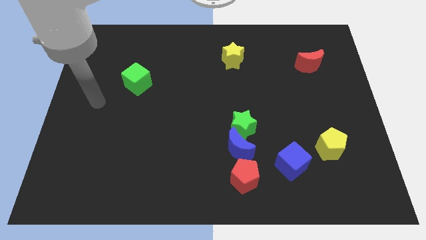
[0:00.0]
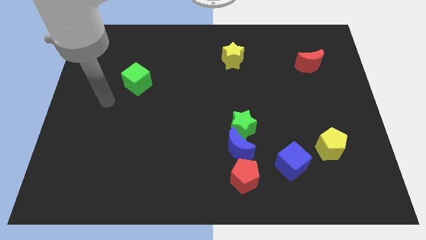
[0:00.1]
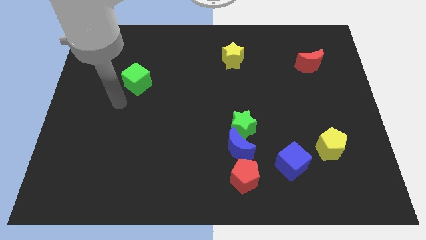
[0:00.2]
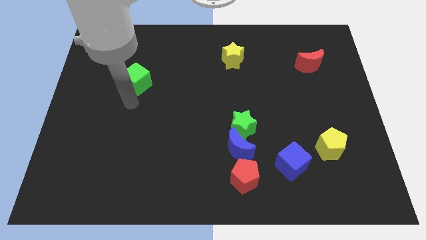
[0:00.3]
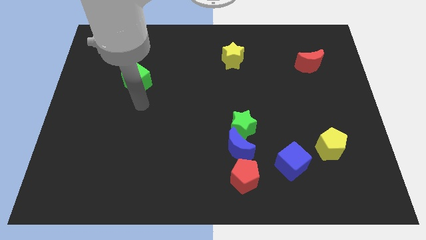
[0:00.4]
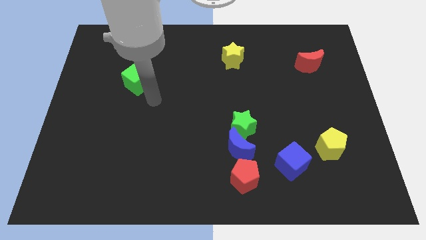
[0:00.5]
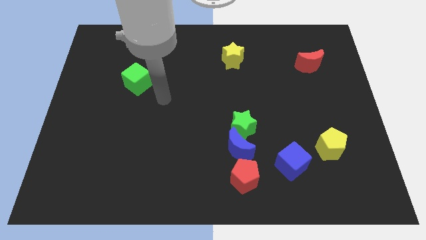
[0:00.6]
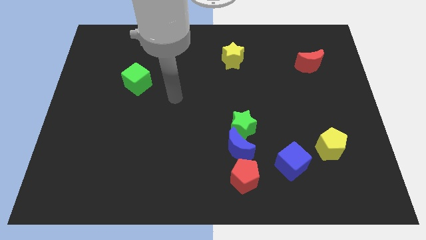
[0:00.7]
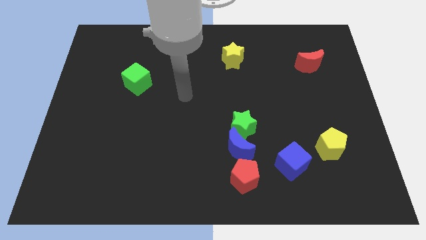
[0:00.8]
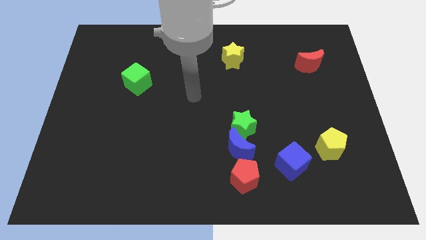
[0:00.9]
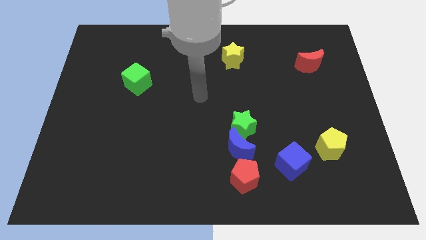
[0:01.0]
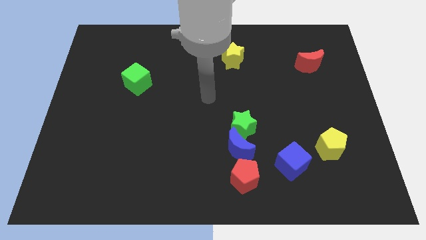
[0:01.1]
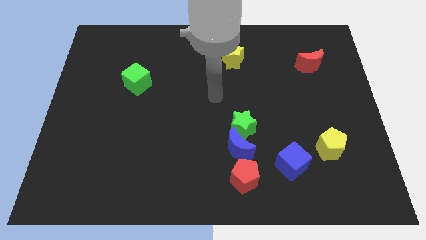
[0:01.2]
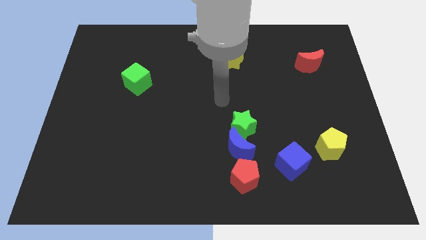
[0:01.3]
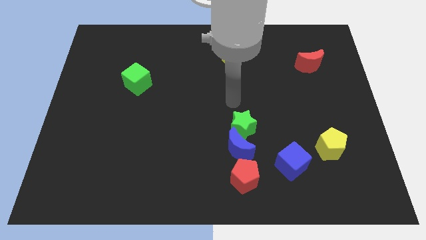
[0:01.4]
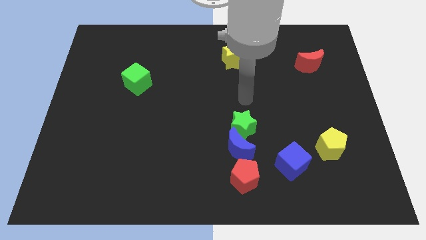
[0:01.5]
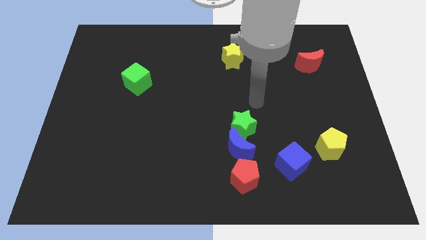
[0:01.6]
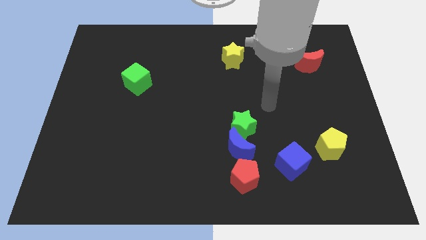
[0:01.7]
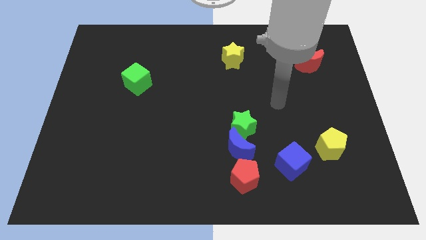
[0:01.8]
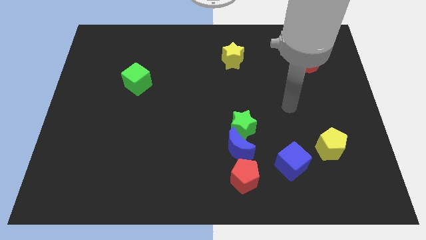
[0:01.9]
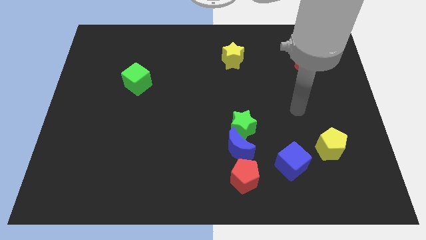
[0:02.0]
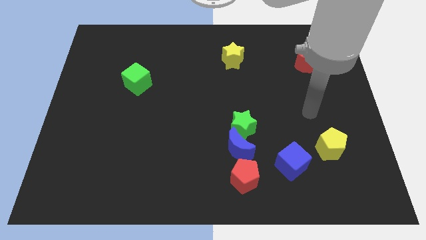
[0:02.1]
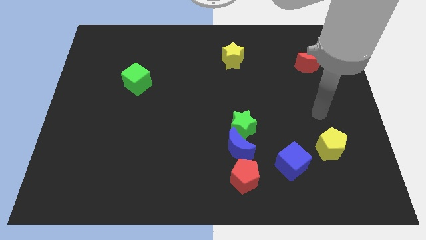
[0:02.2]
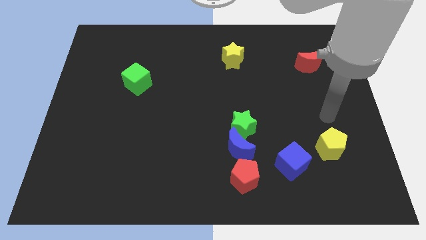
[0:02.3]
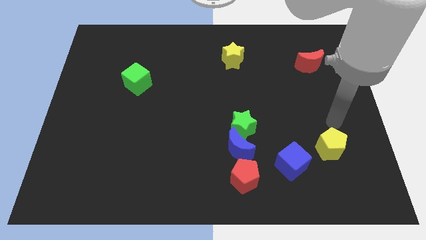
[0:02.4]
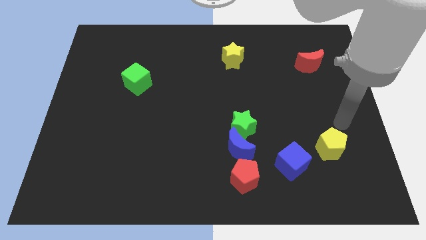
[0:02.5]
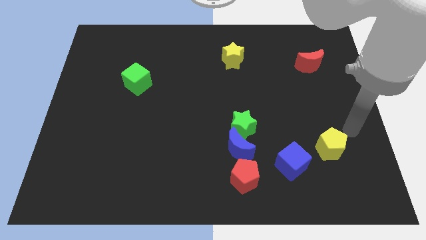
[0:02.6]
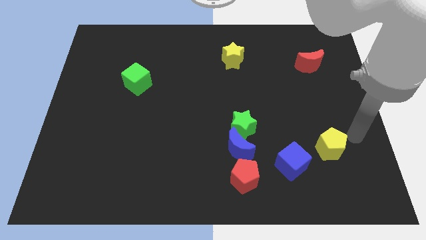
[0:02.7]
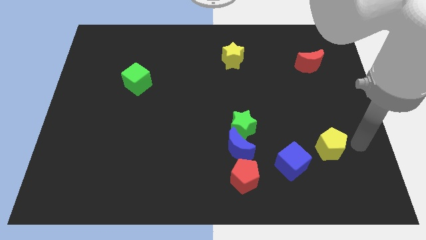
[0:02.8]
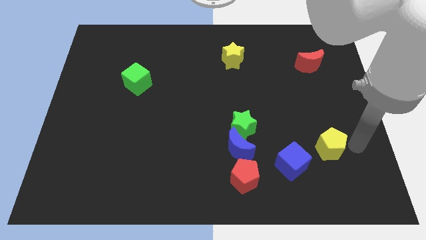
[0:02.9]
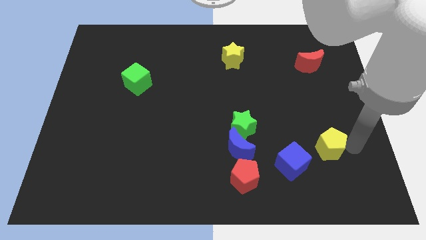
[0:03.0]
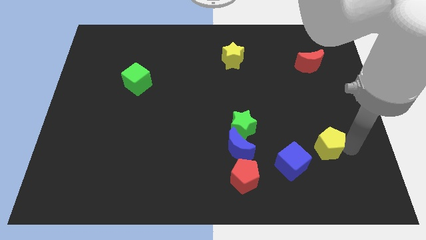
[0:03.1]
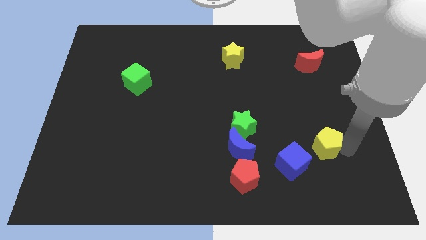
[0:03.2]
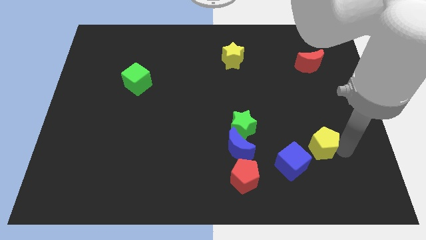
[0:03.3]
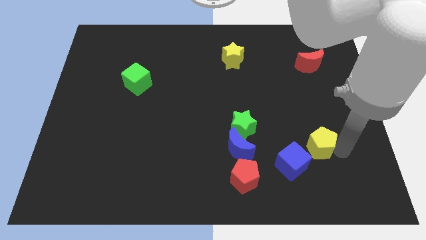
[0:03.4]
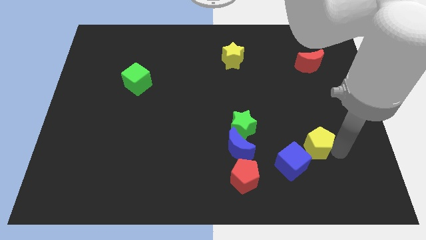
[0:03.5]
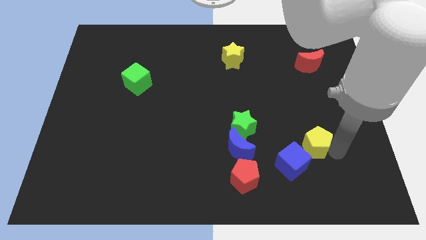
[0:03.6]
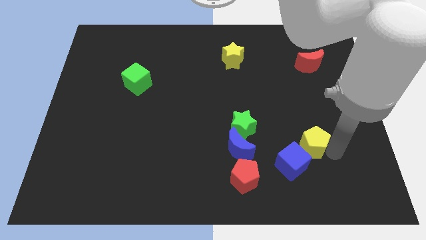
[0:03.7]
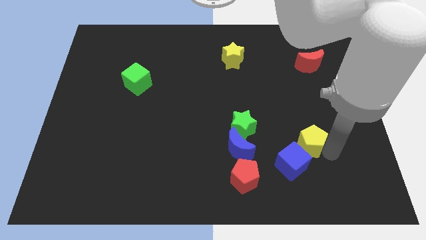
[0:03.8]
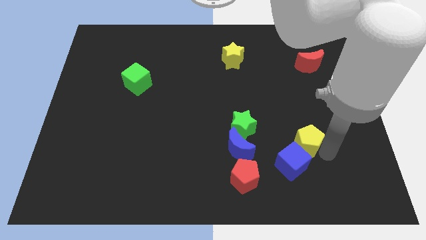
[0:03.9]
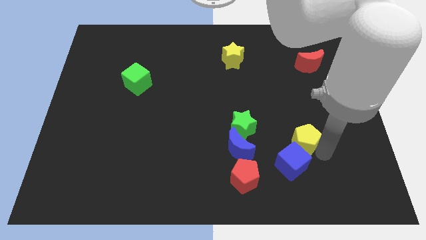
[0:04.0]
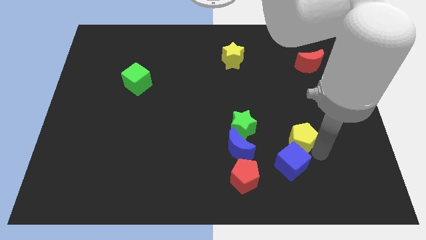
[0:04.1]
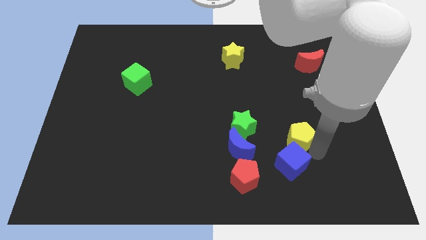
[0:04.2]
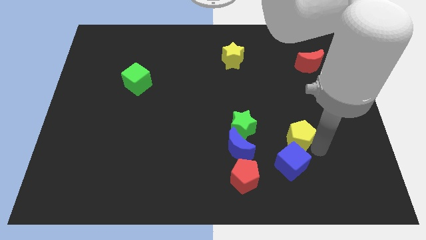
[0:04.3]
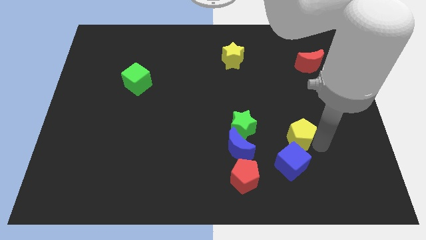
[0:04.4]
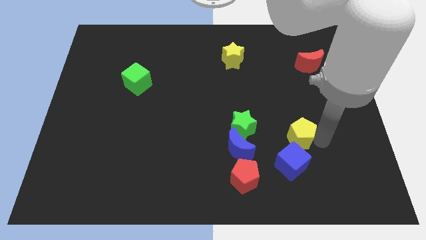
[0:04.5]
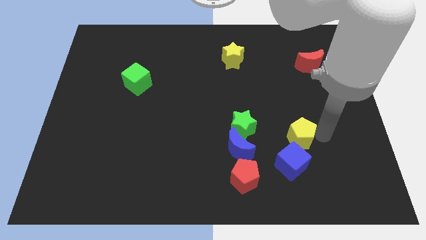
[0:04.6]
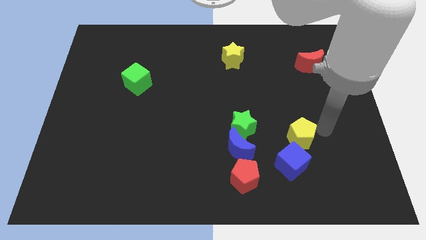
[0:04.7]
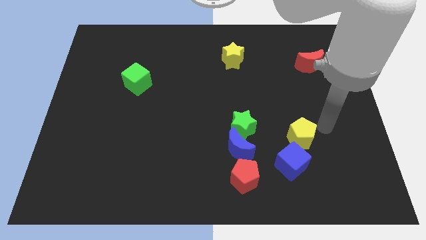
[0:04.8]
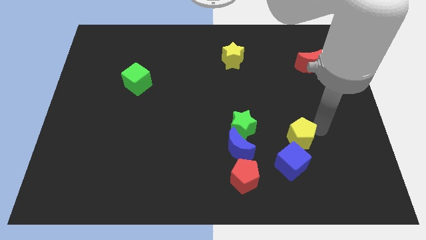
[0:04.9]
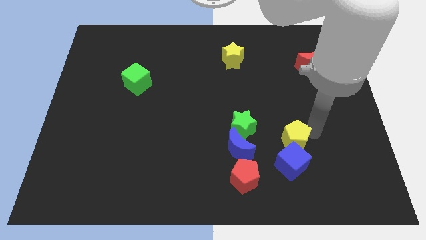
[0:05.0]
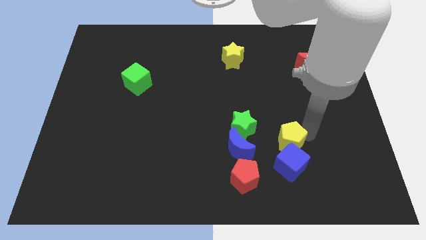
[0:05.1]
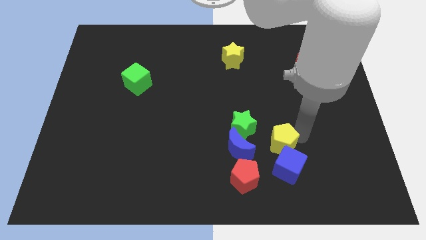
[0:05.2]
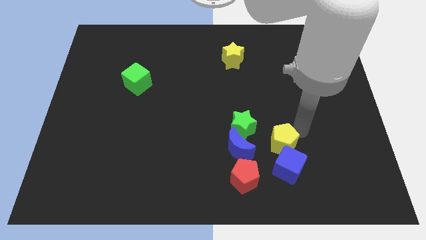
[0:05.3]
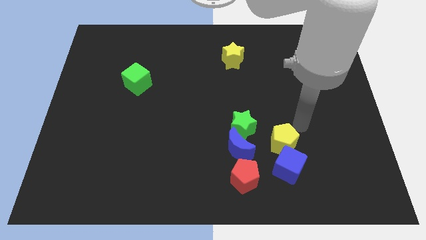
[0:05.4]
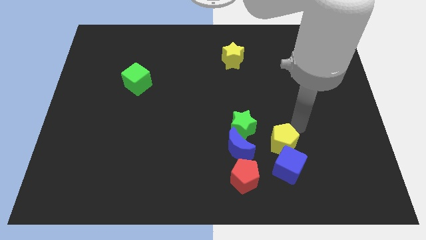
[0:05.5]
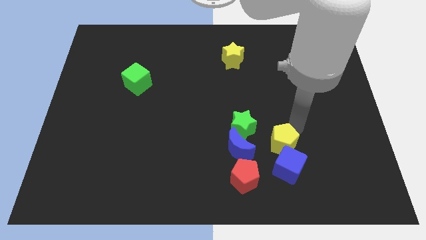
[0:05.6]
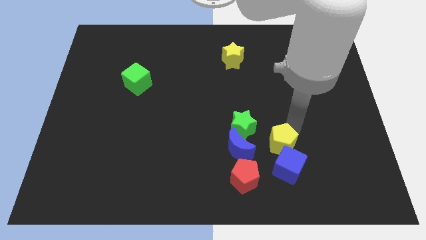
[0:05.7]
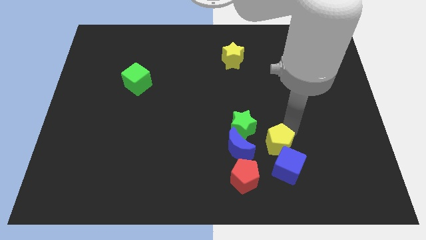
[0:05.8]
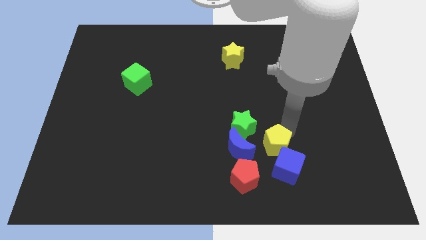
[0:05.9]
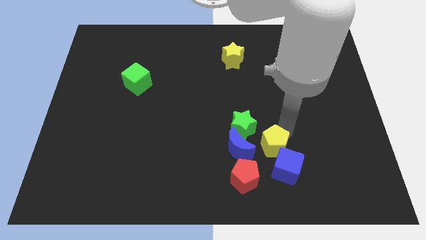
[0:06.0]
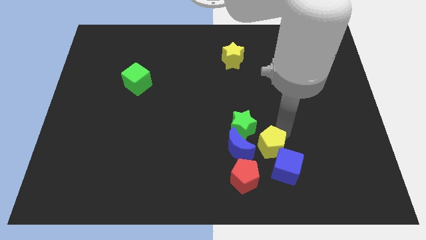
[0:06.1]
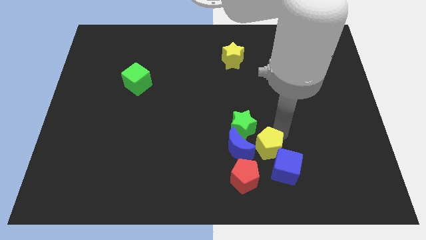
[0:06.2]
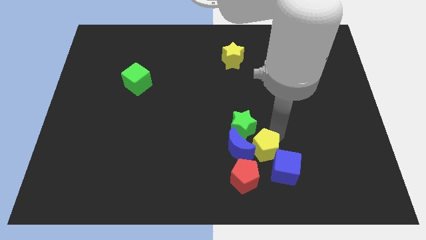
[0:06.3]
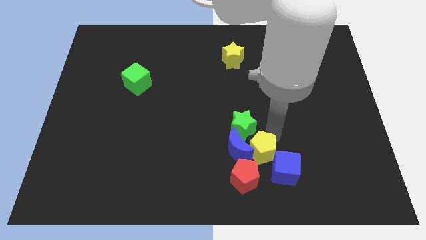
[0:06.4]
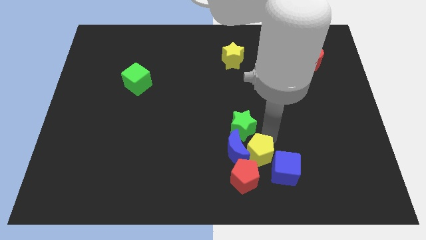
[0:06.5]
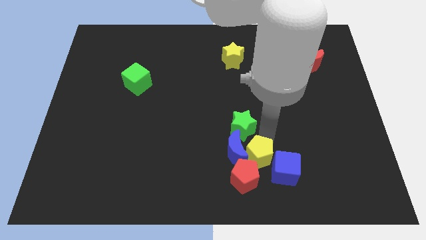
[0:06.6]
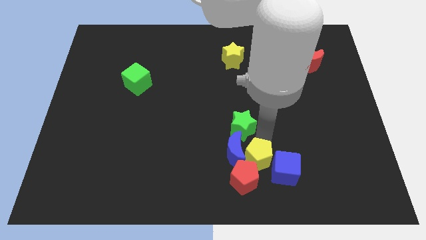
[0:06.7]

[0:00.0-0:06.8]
push the yellow pentagon close to the red pentagon

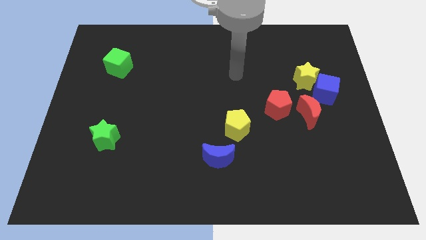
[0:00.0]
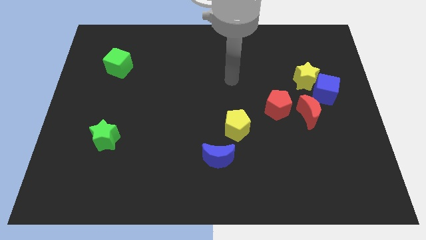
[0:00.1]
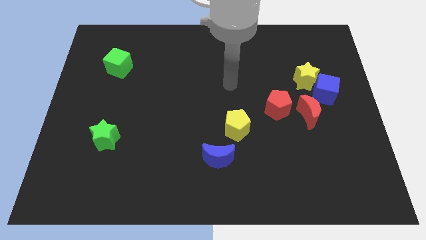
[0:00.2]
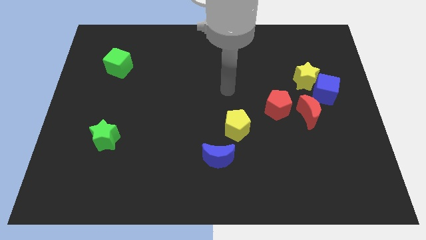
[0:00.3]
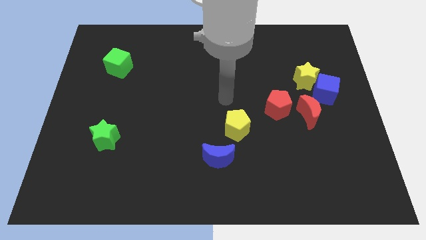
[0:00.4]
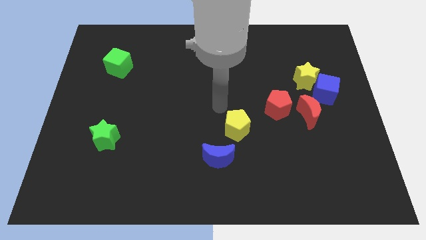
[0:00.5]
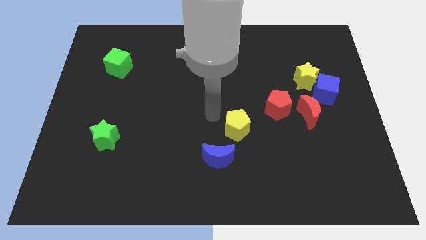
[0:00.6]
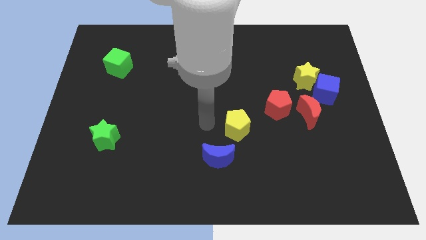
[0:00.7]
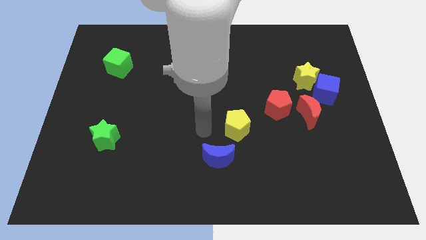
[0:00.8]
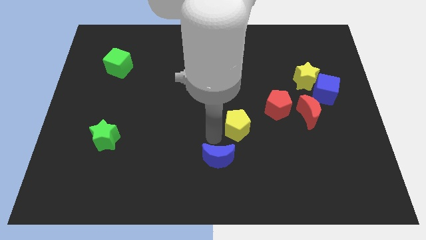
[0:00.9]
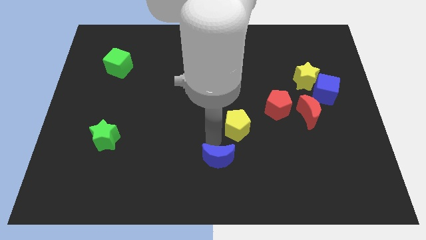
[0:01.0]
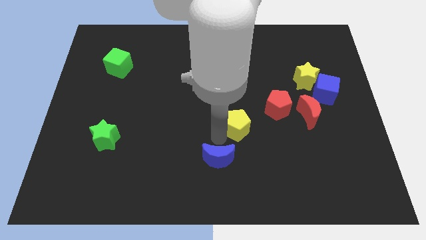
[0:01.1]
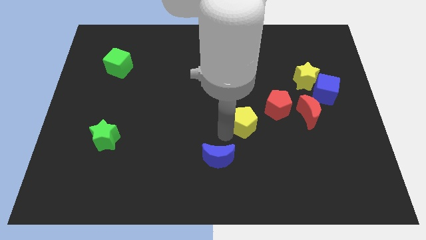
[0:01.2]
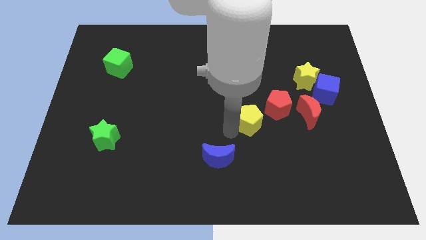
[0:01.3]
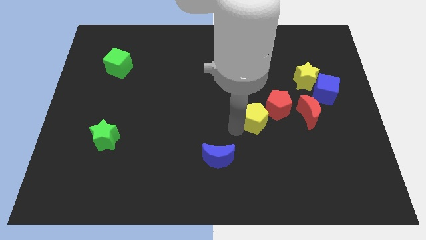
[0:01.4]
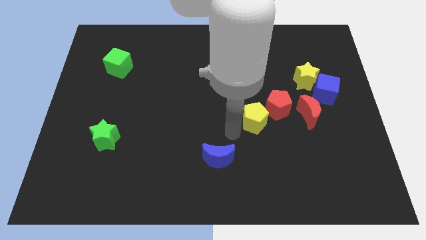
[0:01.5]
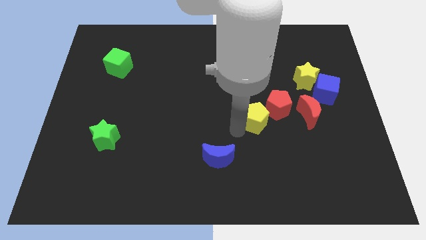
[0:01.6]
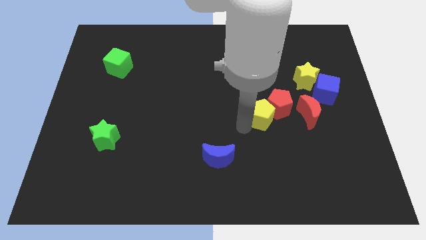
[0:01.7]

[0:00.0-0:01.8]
push the yellow pentagon next to the red pentagon
